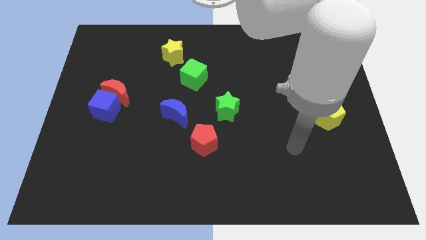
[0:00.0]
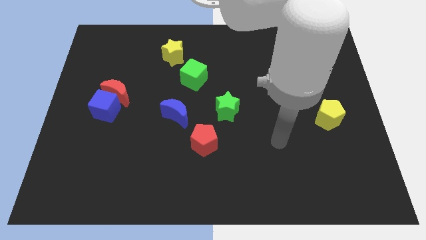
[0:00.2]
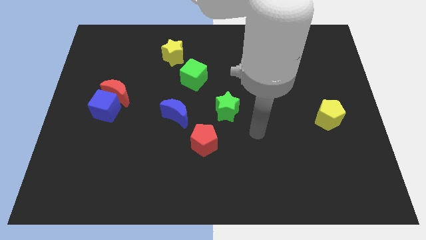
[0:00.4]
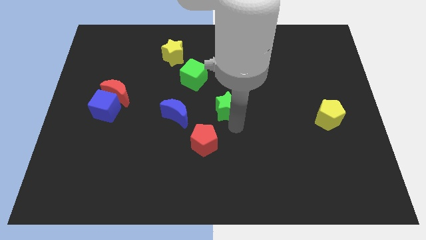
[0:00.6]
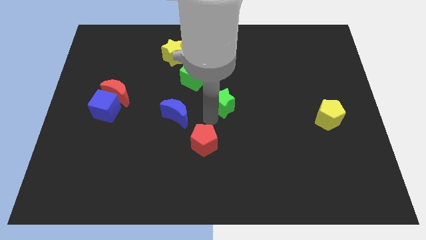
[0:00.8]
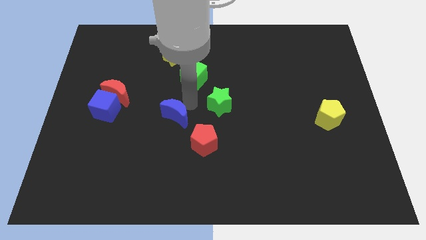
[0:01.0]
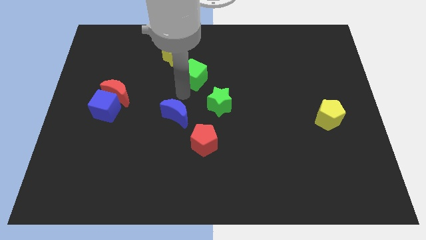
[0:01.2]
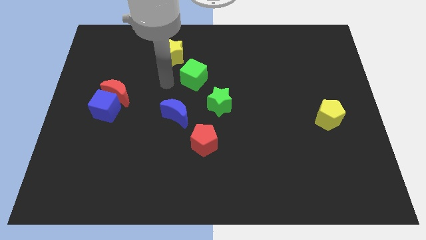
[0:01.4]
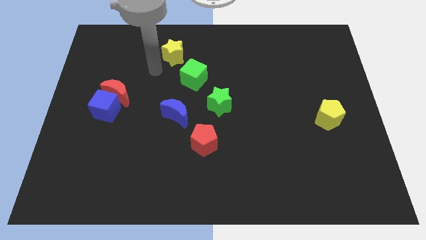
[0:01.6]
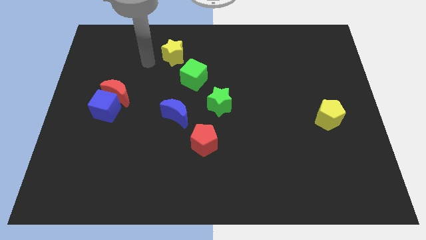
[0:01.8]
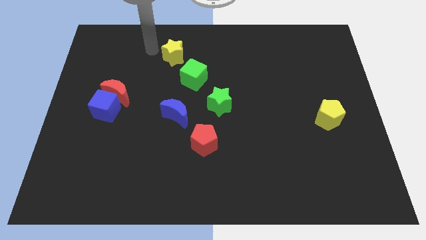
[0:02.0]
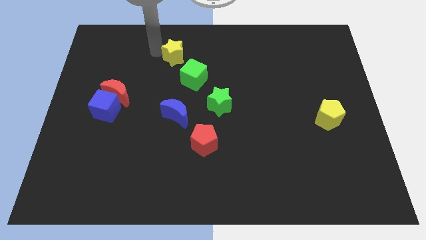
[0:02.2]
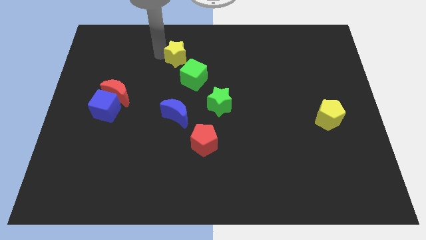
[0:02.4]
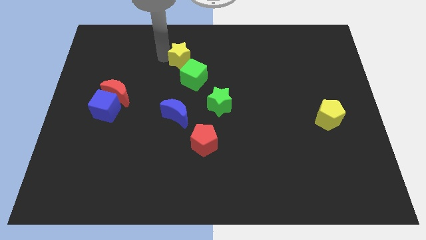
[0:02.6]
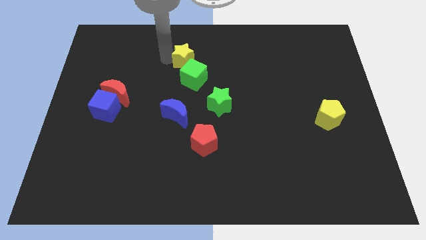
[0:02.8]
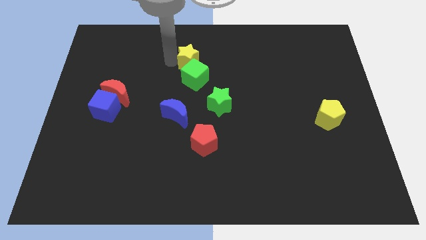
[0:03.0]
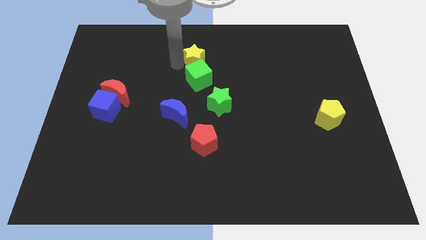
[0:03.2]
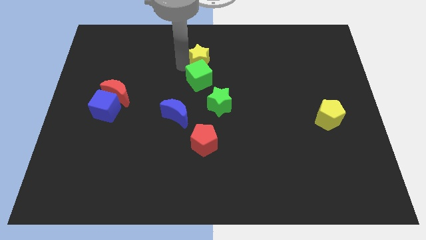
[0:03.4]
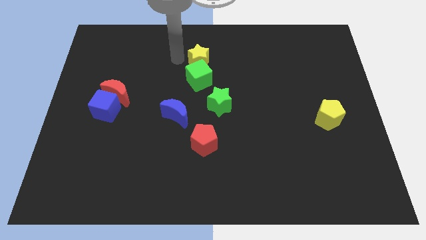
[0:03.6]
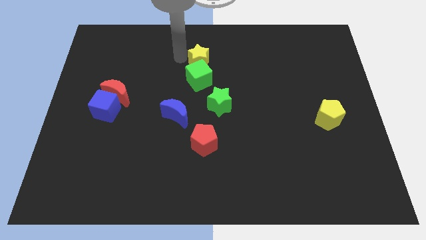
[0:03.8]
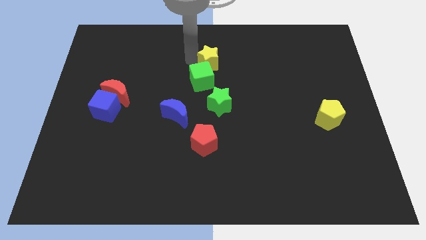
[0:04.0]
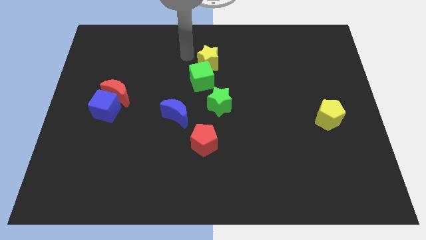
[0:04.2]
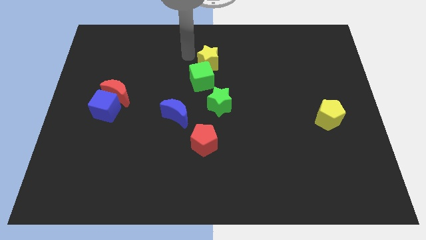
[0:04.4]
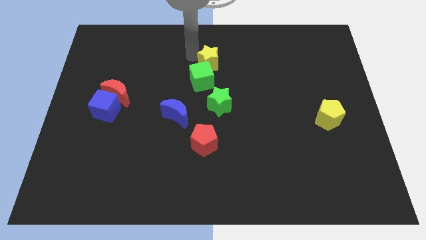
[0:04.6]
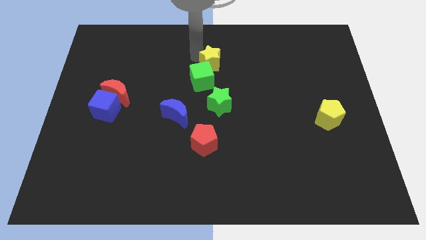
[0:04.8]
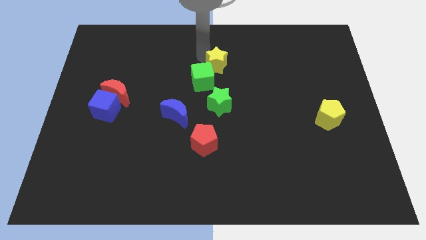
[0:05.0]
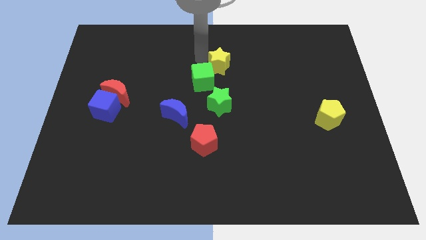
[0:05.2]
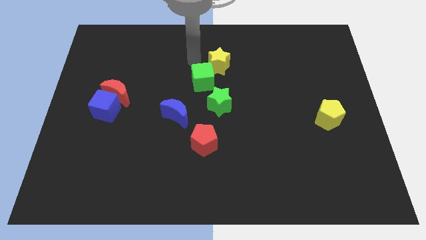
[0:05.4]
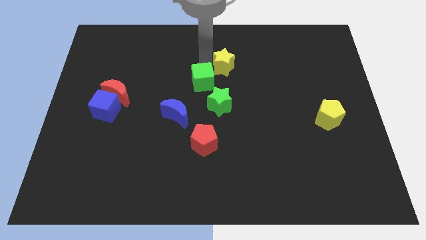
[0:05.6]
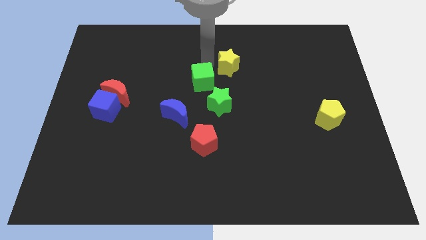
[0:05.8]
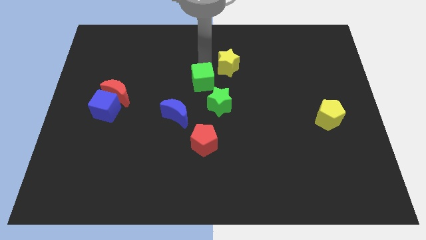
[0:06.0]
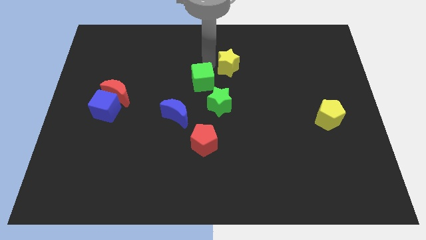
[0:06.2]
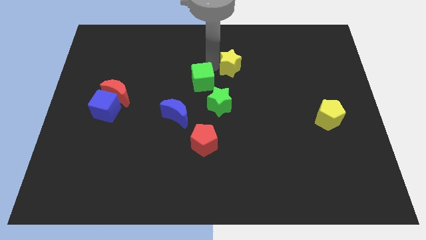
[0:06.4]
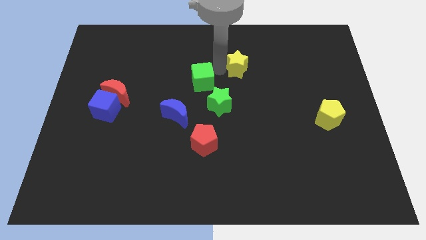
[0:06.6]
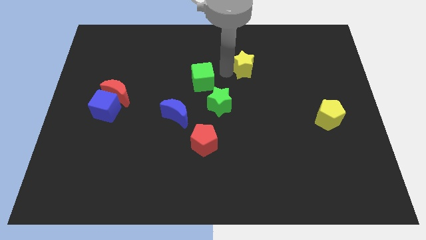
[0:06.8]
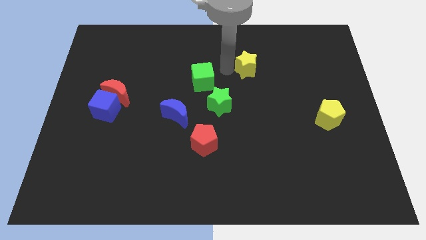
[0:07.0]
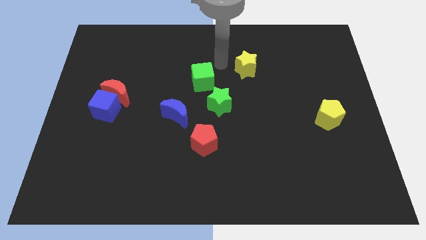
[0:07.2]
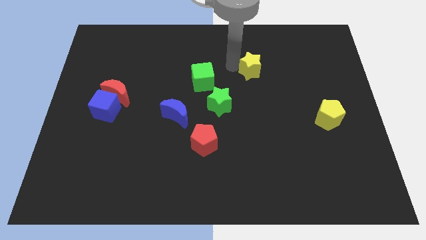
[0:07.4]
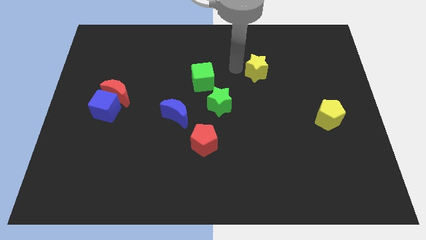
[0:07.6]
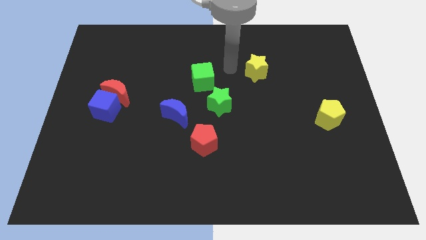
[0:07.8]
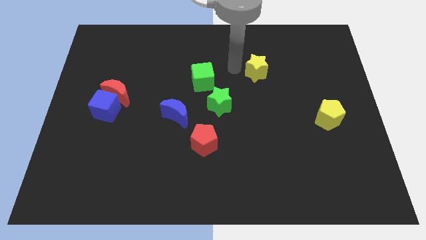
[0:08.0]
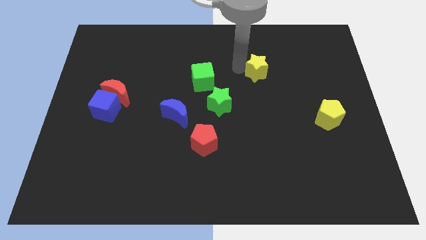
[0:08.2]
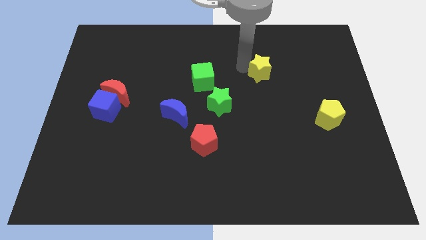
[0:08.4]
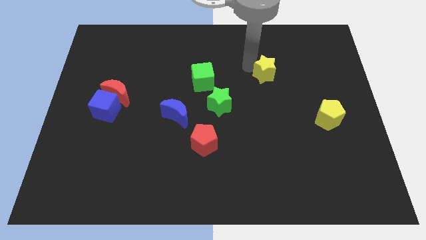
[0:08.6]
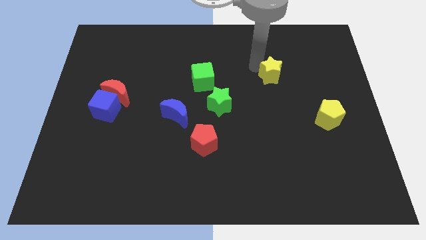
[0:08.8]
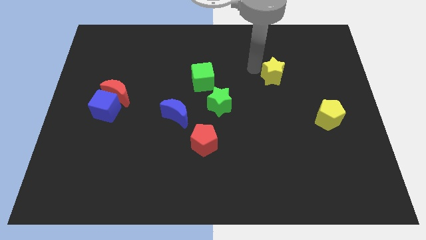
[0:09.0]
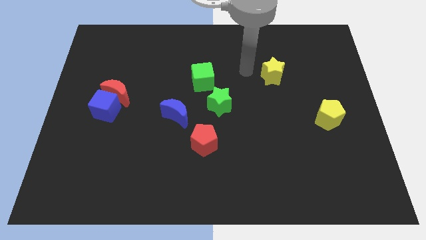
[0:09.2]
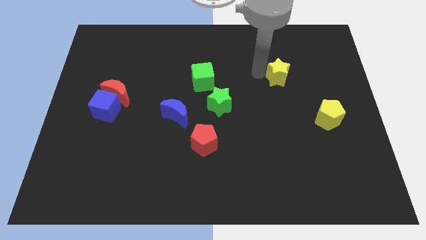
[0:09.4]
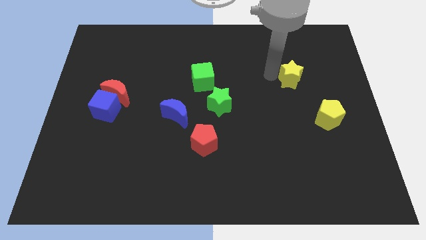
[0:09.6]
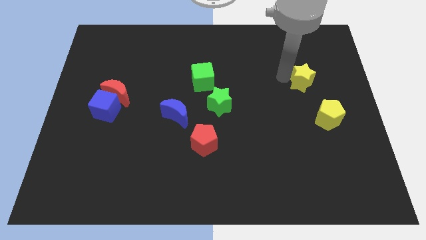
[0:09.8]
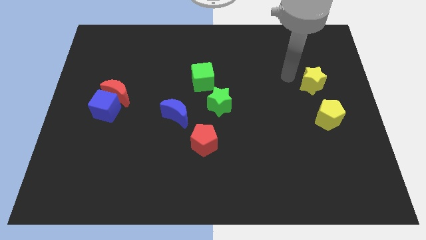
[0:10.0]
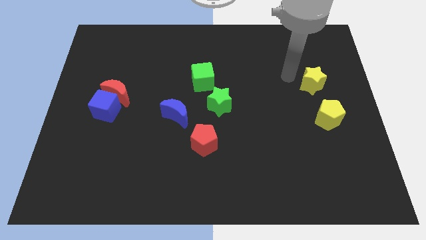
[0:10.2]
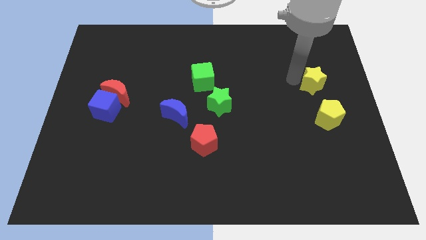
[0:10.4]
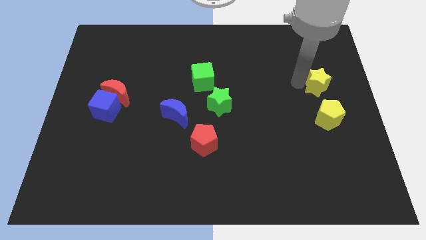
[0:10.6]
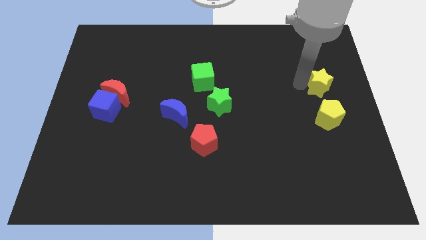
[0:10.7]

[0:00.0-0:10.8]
put the yellow star to the right side of the board

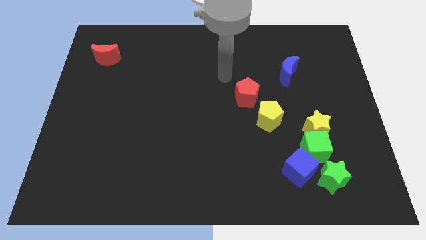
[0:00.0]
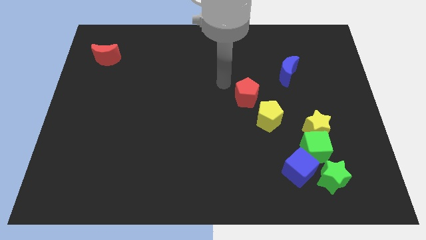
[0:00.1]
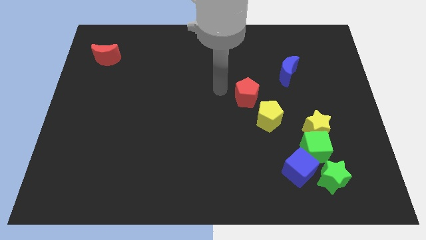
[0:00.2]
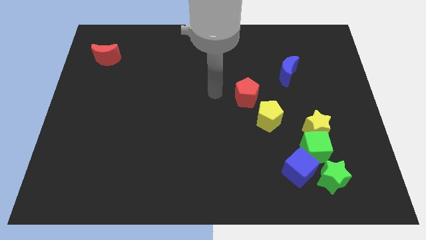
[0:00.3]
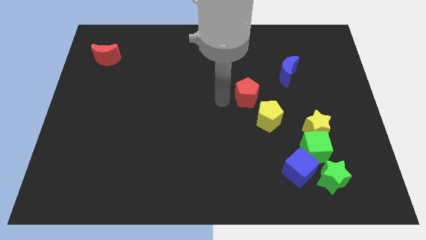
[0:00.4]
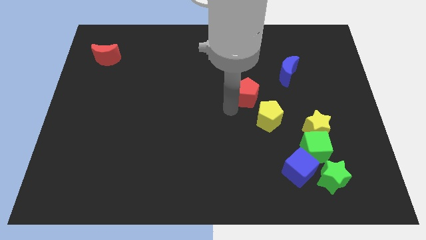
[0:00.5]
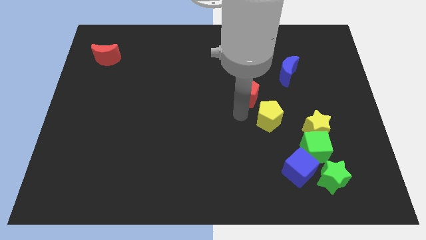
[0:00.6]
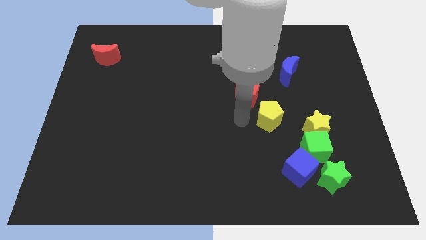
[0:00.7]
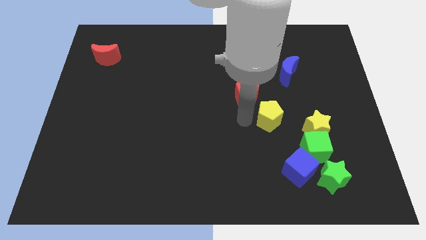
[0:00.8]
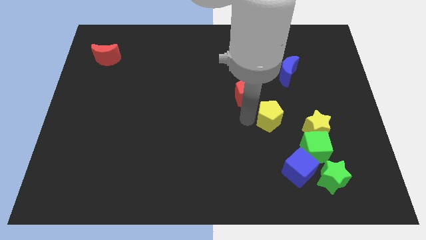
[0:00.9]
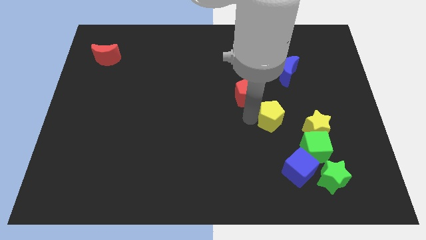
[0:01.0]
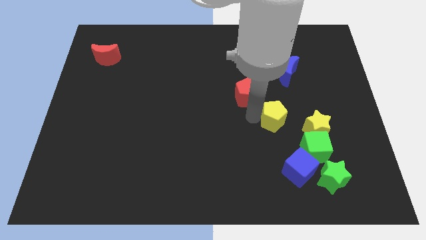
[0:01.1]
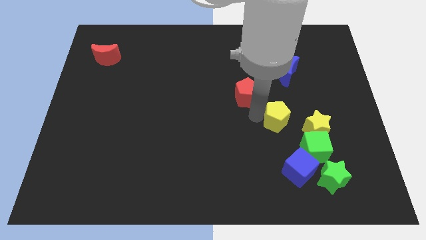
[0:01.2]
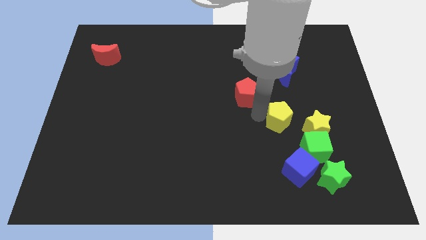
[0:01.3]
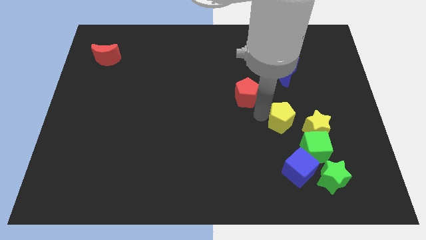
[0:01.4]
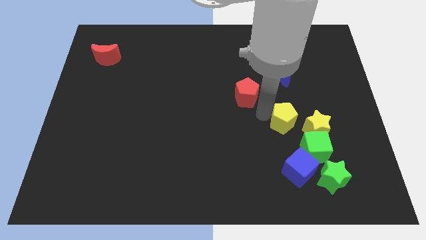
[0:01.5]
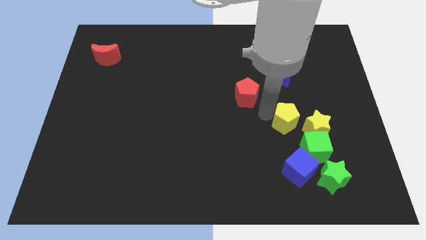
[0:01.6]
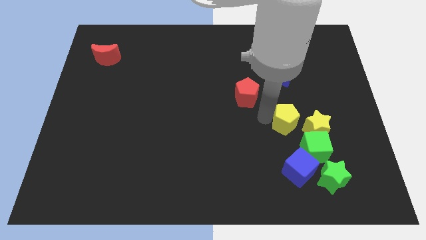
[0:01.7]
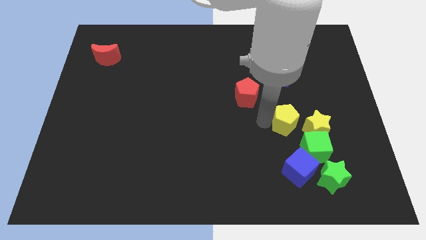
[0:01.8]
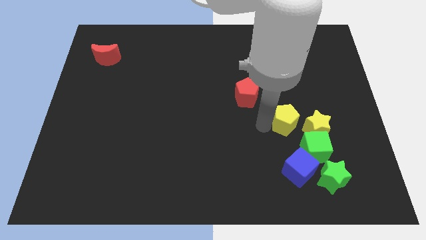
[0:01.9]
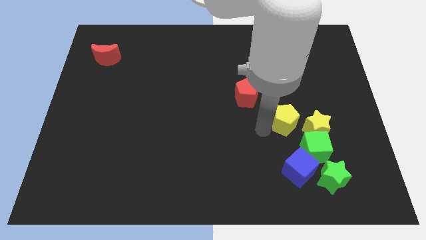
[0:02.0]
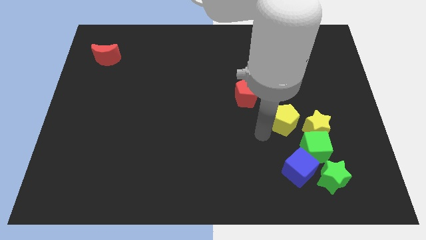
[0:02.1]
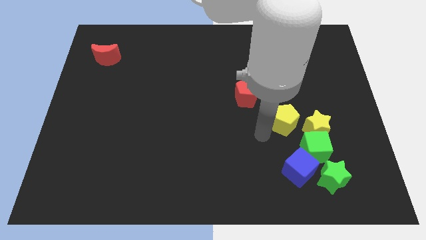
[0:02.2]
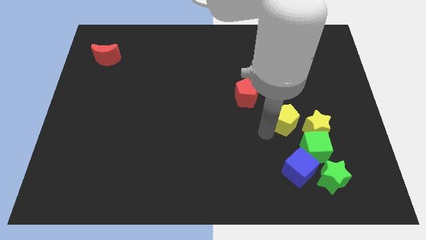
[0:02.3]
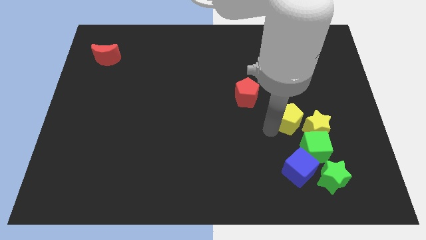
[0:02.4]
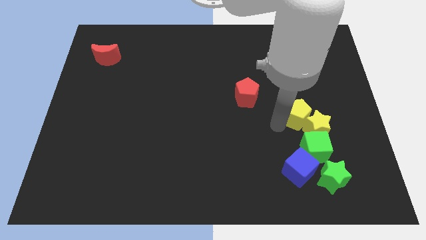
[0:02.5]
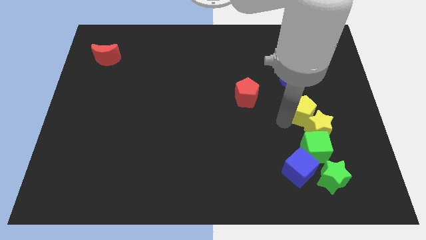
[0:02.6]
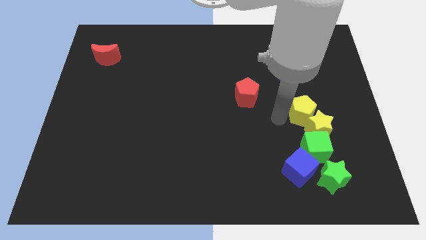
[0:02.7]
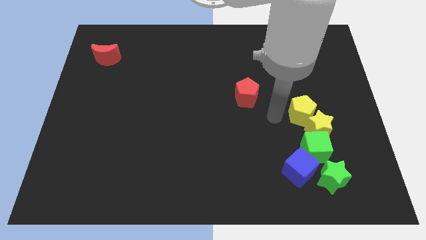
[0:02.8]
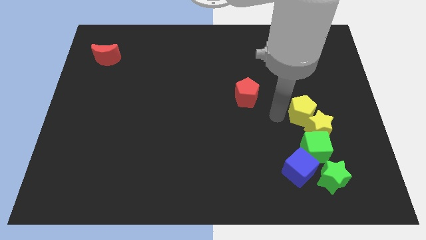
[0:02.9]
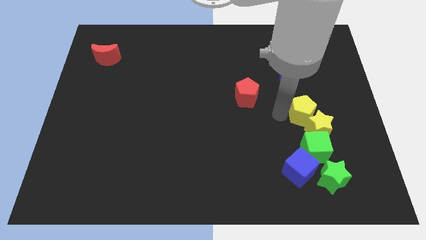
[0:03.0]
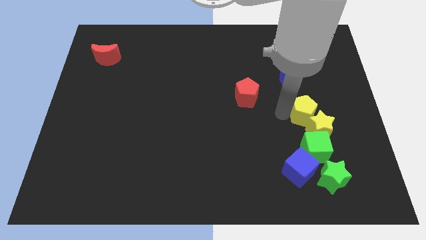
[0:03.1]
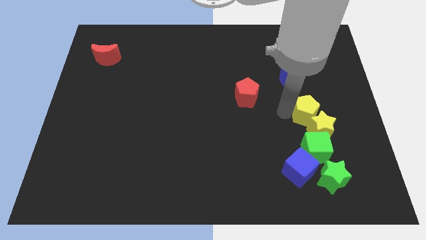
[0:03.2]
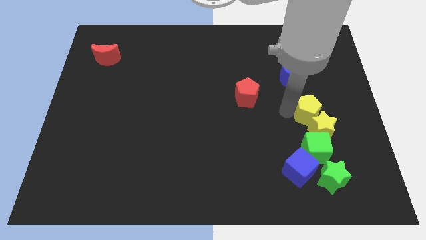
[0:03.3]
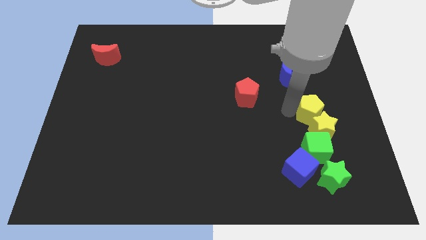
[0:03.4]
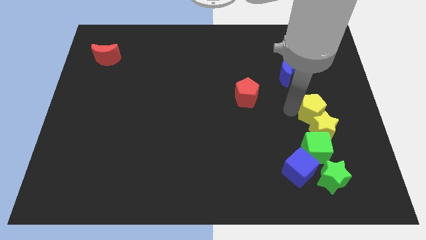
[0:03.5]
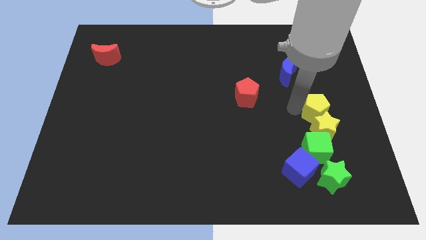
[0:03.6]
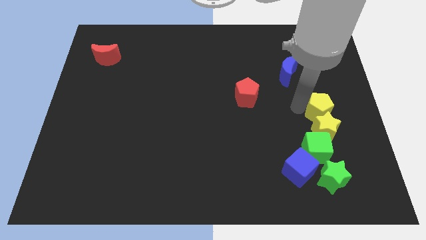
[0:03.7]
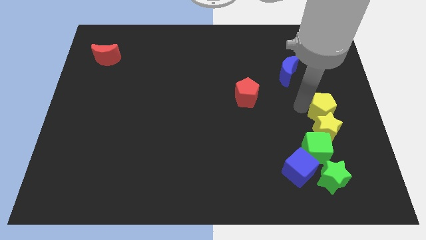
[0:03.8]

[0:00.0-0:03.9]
slide the yellow pentagon to the right side of the board
